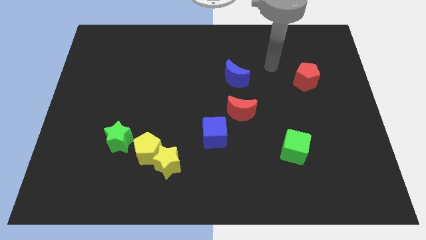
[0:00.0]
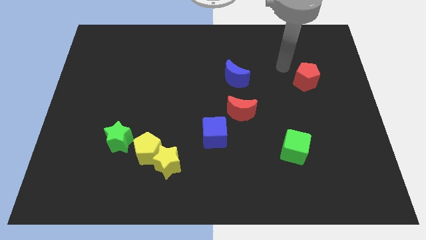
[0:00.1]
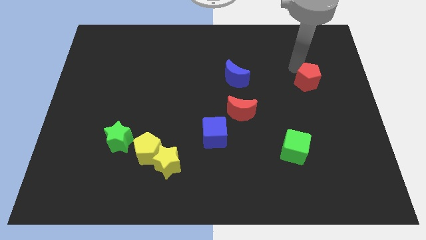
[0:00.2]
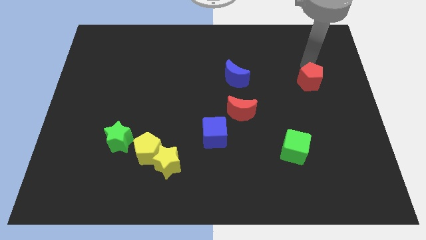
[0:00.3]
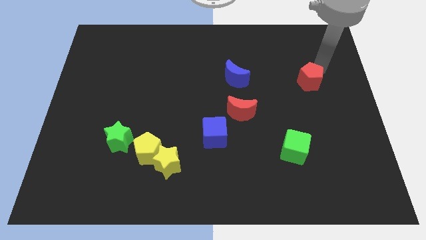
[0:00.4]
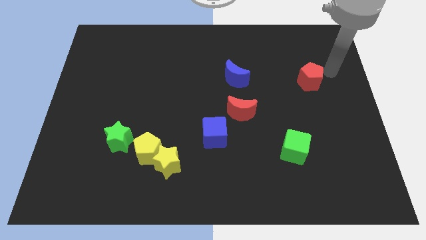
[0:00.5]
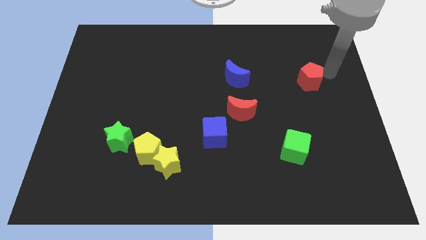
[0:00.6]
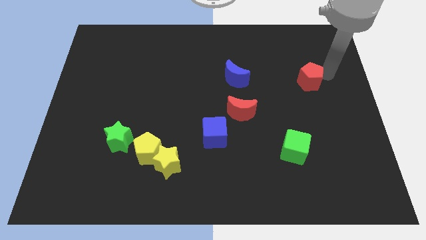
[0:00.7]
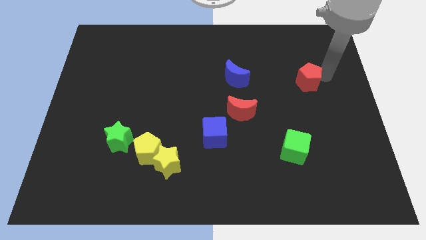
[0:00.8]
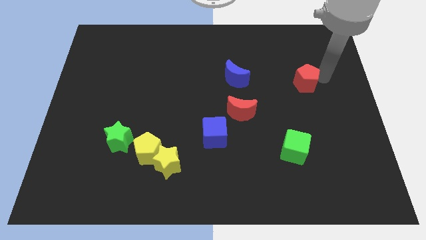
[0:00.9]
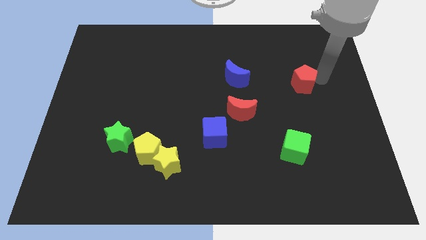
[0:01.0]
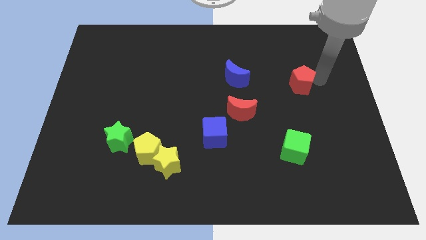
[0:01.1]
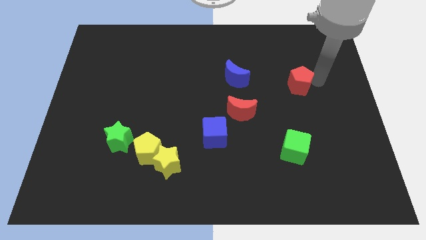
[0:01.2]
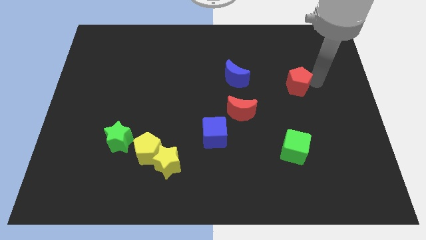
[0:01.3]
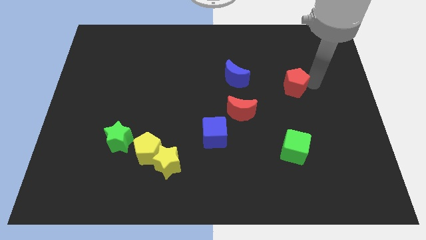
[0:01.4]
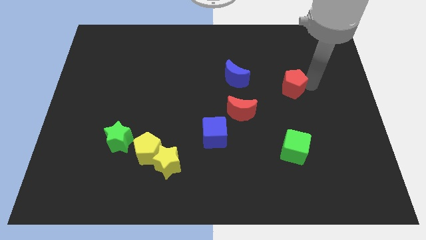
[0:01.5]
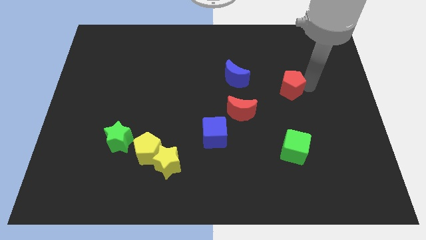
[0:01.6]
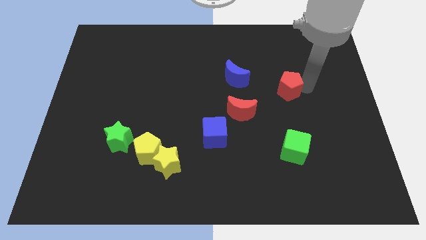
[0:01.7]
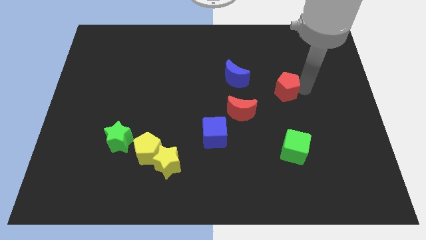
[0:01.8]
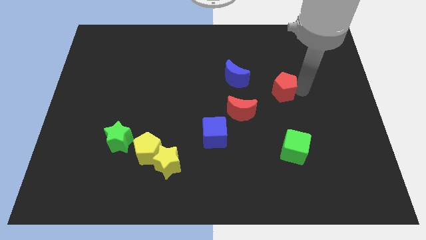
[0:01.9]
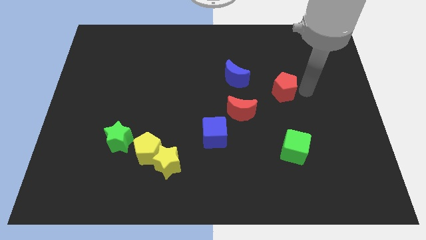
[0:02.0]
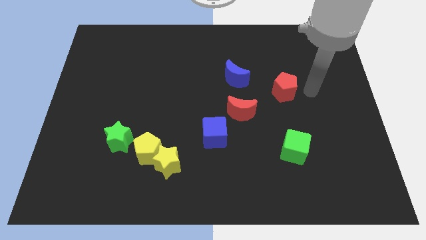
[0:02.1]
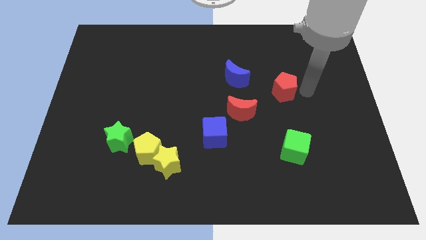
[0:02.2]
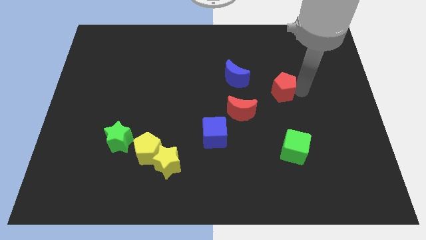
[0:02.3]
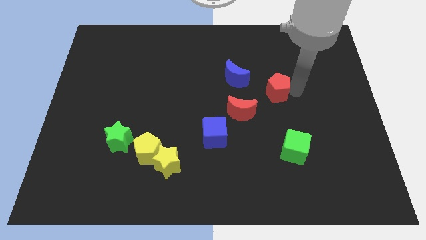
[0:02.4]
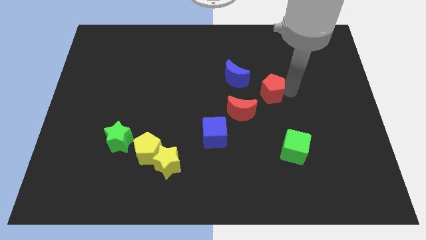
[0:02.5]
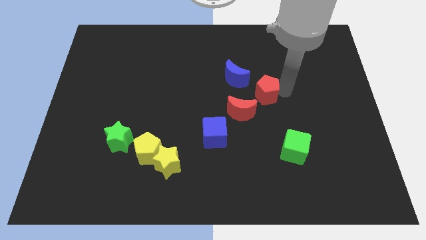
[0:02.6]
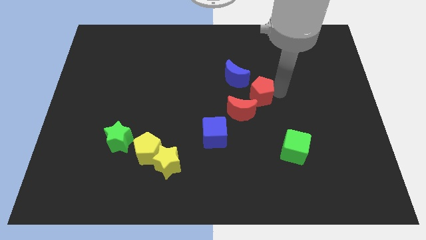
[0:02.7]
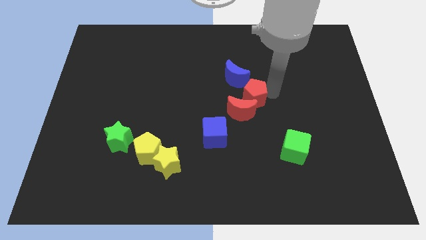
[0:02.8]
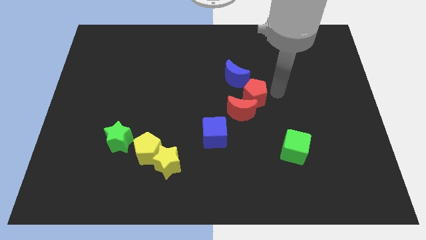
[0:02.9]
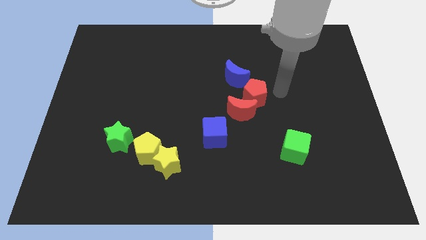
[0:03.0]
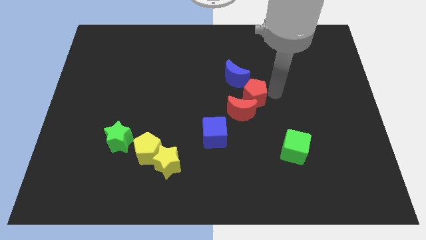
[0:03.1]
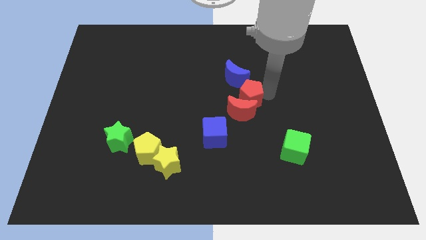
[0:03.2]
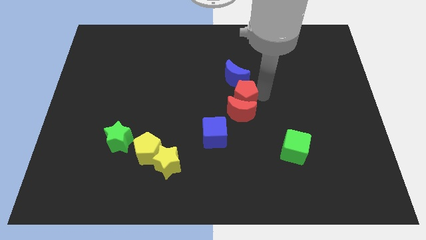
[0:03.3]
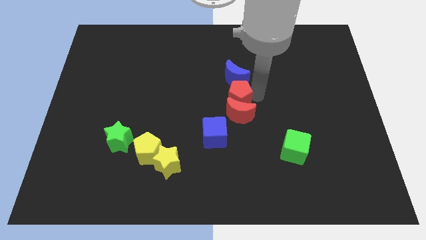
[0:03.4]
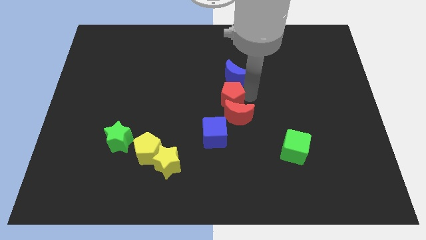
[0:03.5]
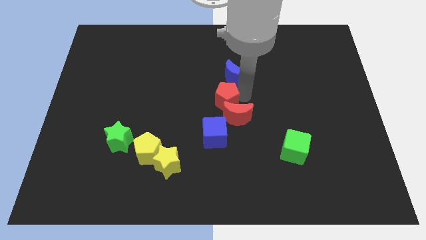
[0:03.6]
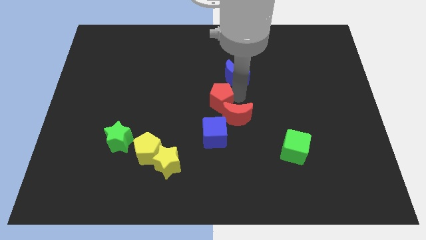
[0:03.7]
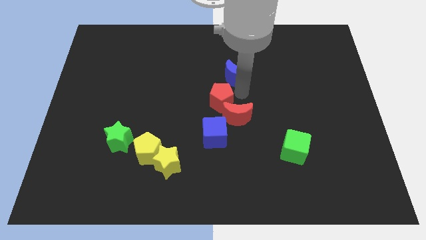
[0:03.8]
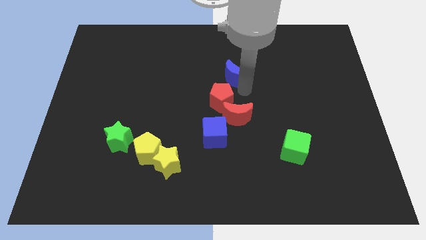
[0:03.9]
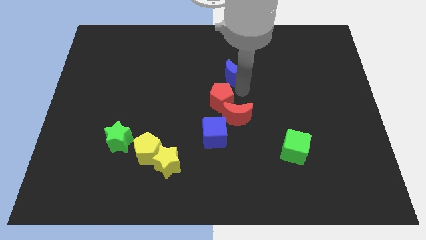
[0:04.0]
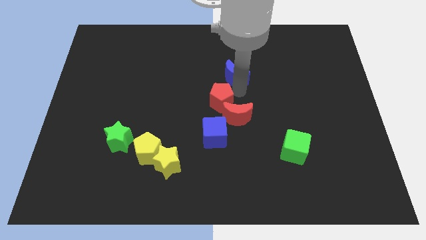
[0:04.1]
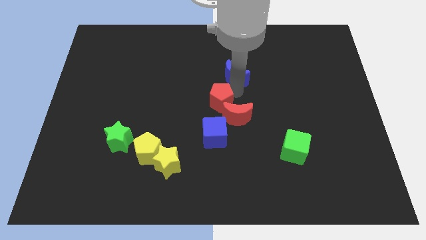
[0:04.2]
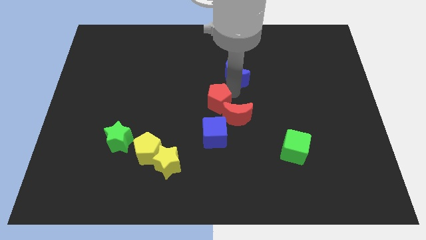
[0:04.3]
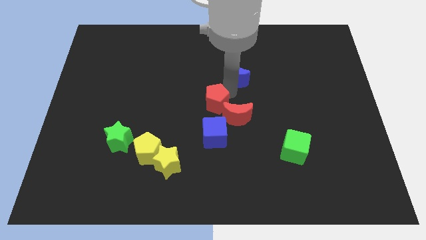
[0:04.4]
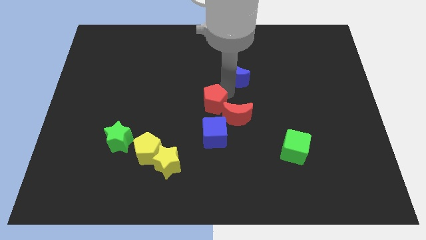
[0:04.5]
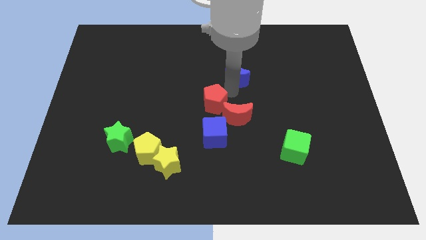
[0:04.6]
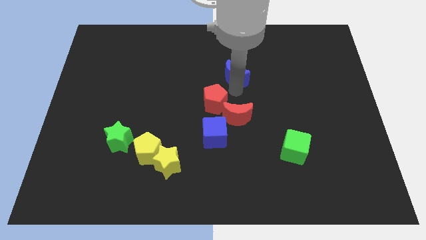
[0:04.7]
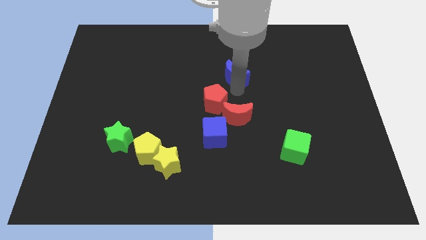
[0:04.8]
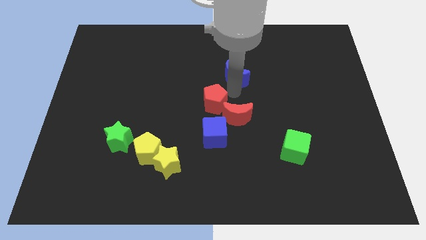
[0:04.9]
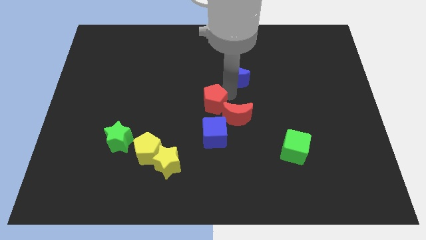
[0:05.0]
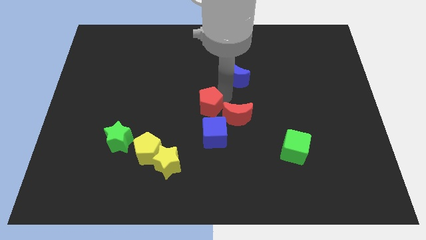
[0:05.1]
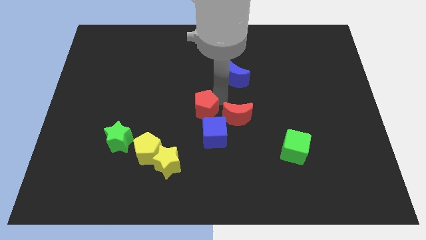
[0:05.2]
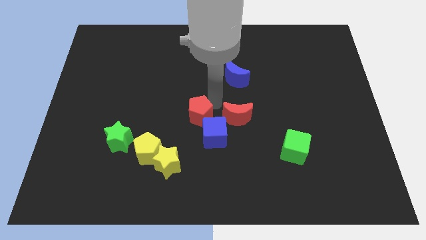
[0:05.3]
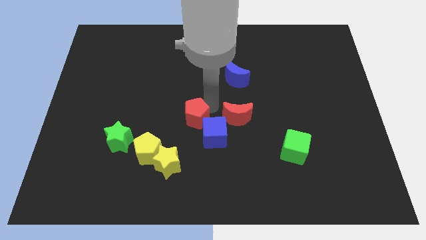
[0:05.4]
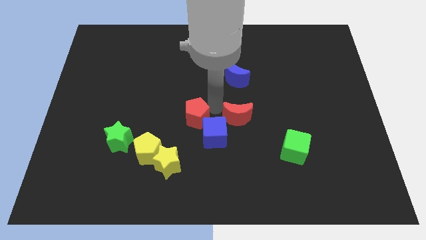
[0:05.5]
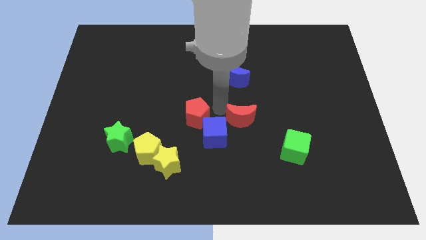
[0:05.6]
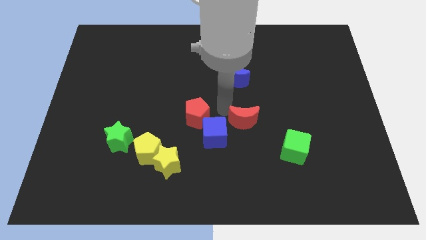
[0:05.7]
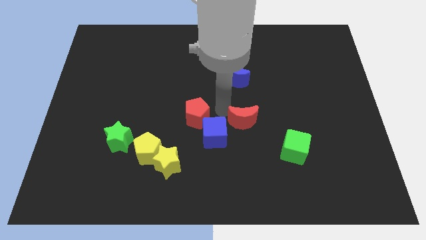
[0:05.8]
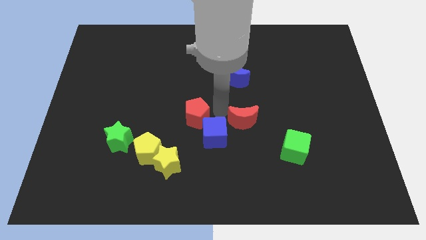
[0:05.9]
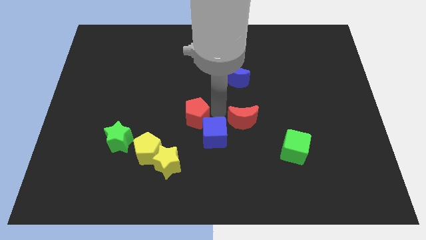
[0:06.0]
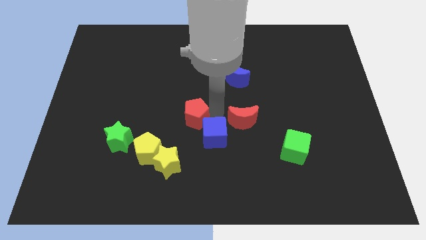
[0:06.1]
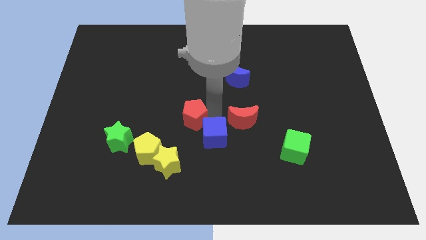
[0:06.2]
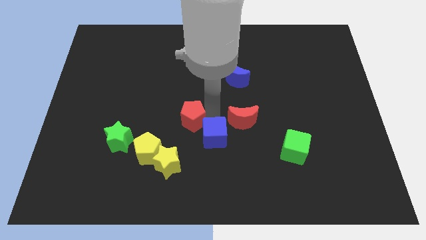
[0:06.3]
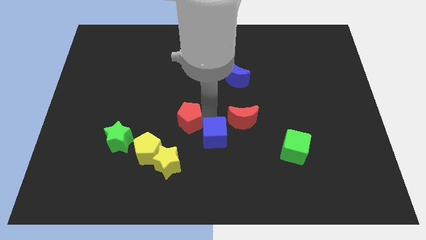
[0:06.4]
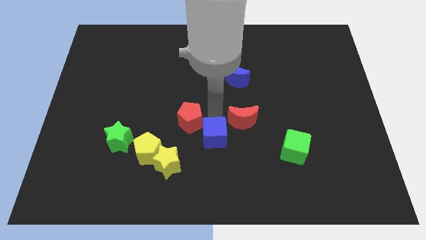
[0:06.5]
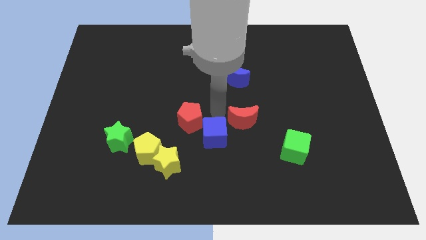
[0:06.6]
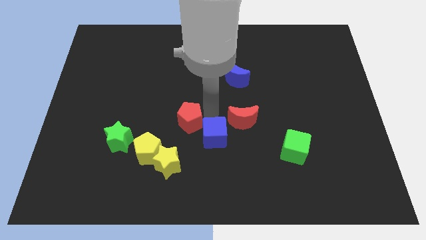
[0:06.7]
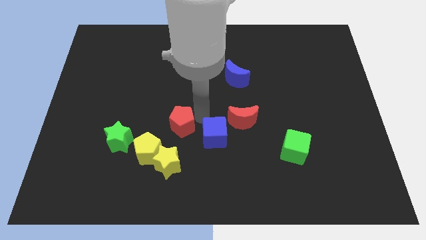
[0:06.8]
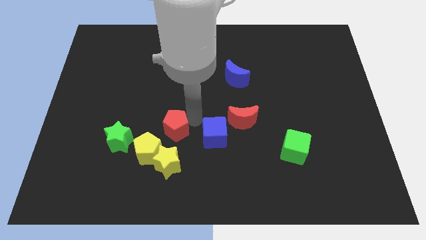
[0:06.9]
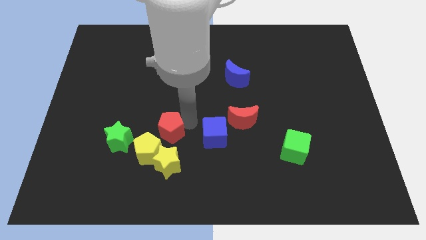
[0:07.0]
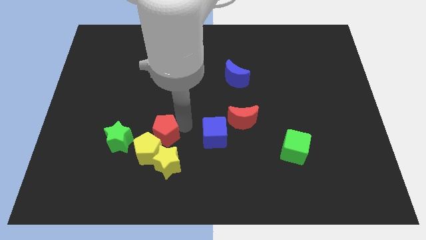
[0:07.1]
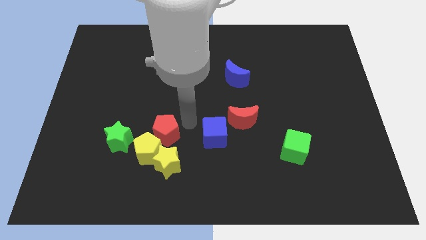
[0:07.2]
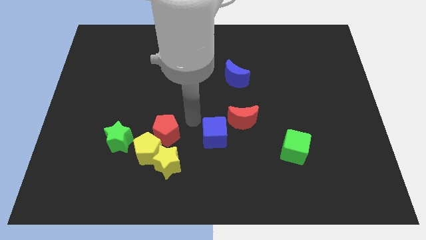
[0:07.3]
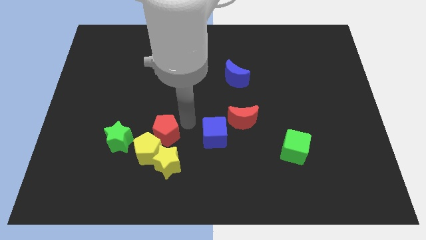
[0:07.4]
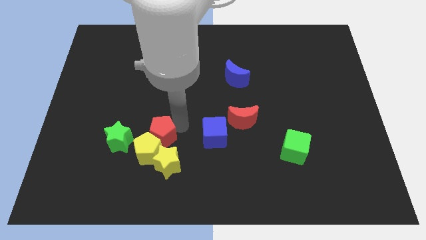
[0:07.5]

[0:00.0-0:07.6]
push the red pentagon to the top left side of the yellow star
